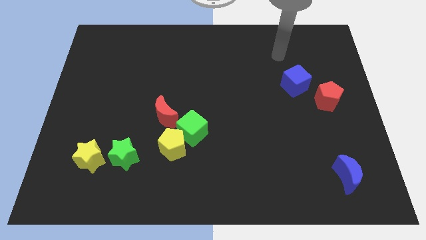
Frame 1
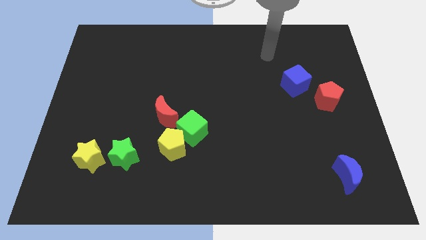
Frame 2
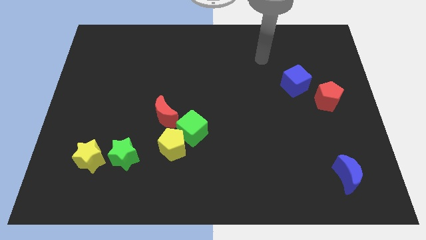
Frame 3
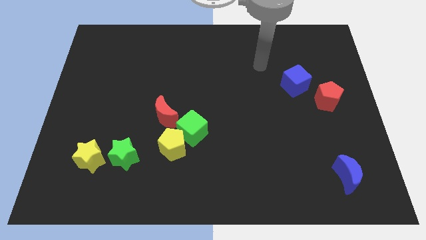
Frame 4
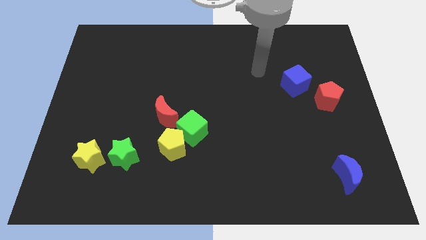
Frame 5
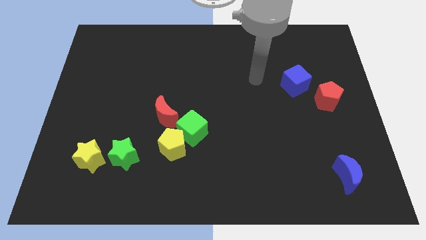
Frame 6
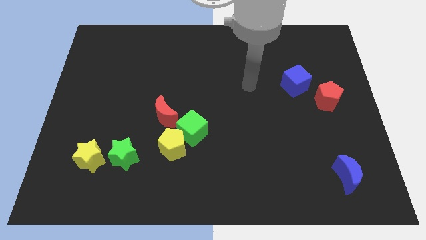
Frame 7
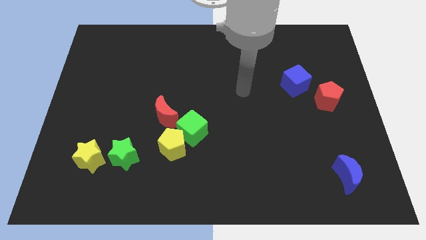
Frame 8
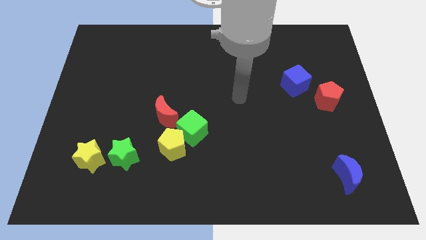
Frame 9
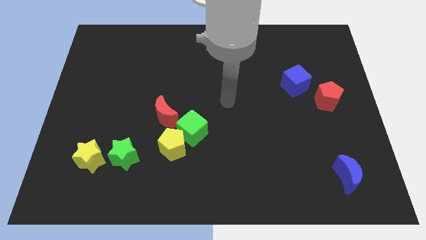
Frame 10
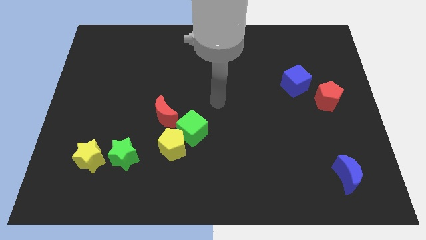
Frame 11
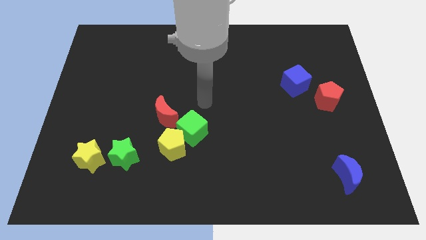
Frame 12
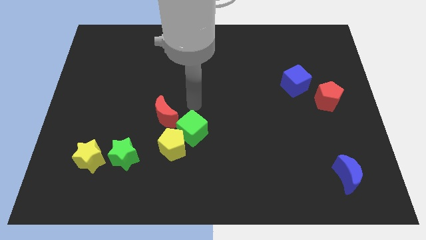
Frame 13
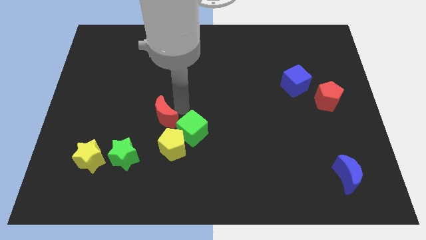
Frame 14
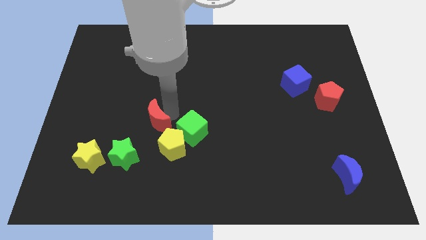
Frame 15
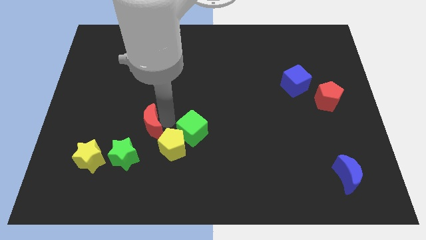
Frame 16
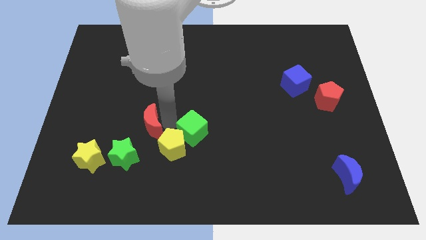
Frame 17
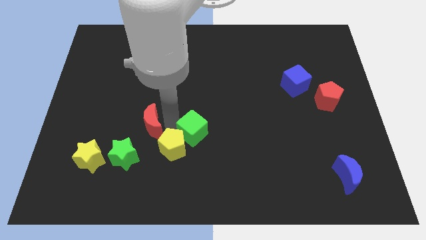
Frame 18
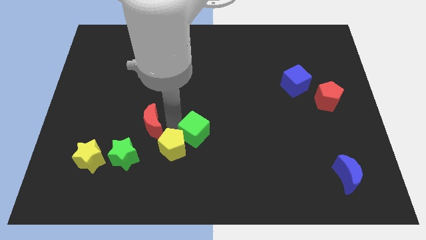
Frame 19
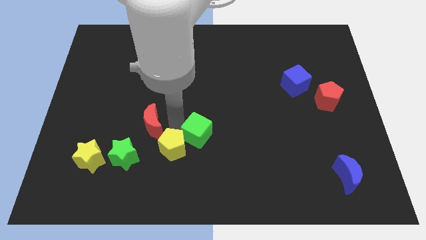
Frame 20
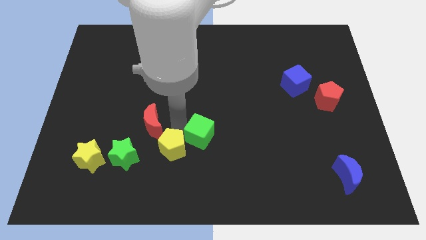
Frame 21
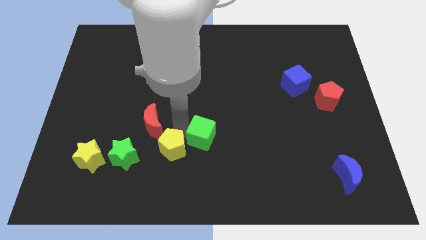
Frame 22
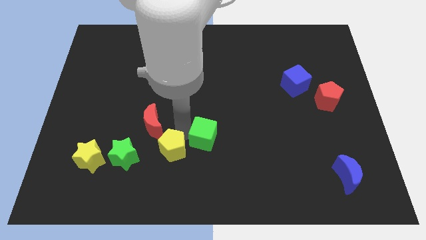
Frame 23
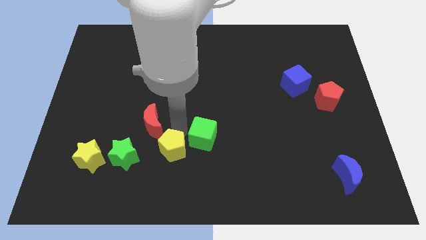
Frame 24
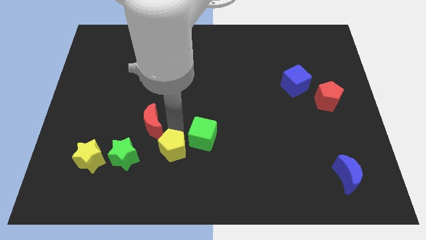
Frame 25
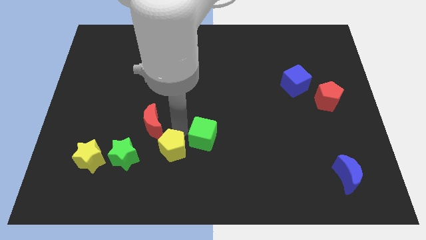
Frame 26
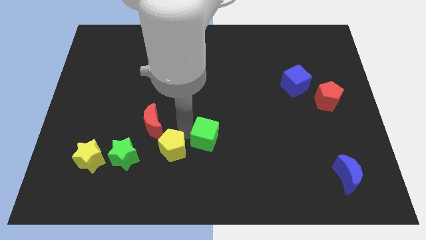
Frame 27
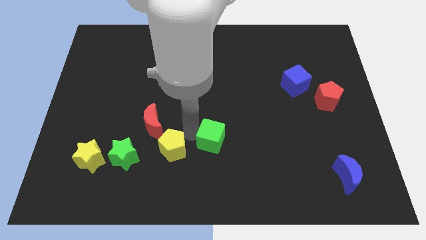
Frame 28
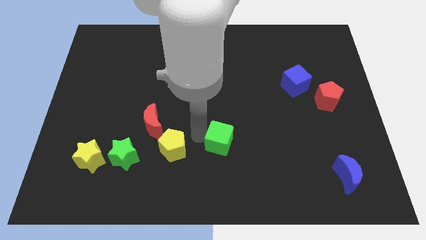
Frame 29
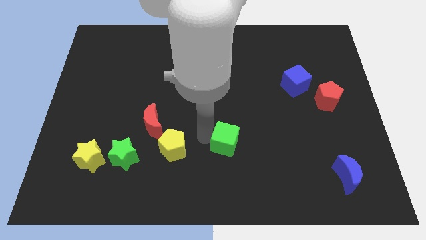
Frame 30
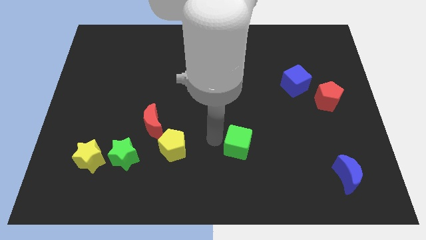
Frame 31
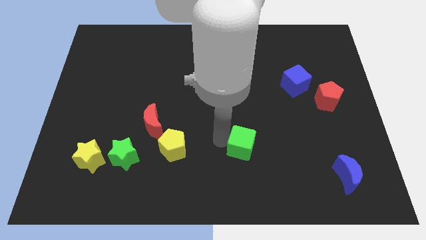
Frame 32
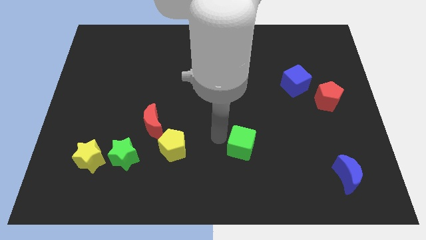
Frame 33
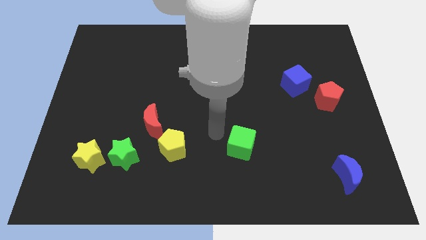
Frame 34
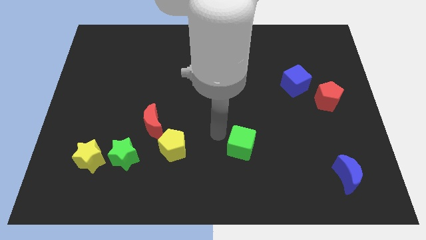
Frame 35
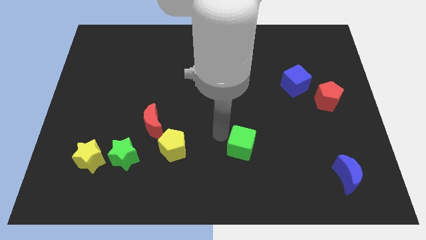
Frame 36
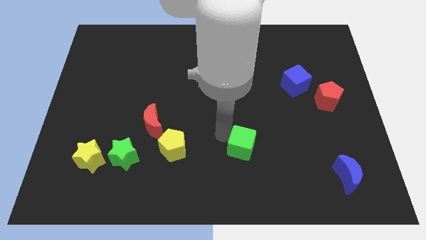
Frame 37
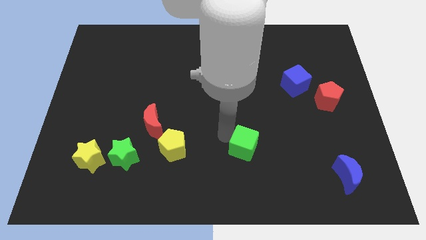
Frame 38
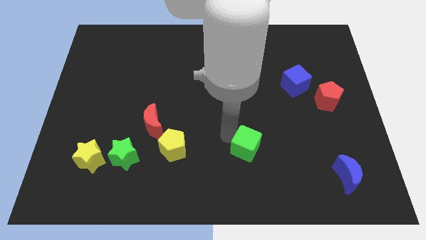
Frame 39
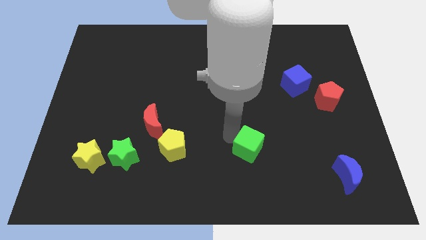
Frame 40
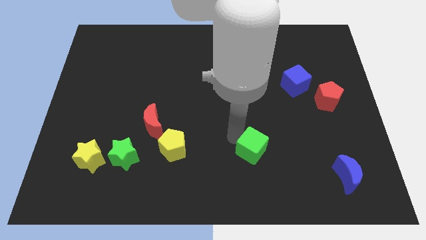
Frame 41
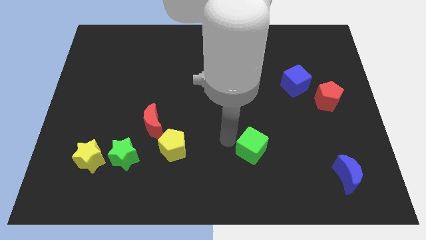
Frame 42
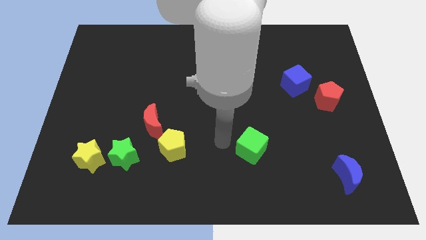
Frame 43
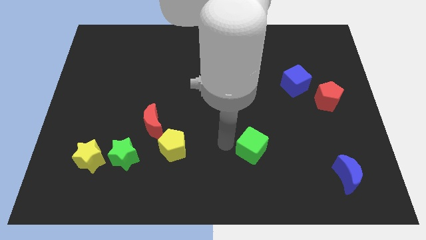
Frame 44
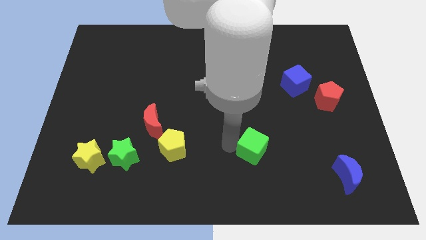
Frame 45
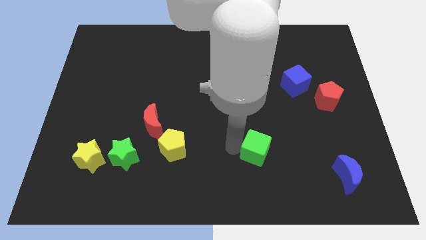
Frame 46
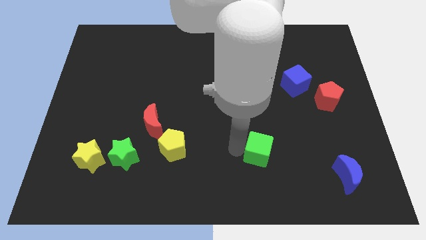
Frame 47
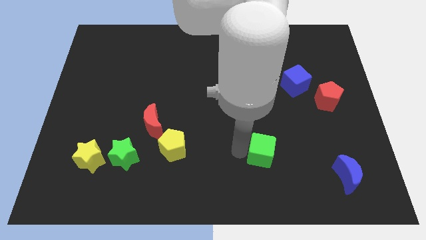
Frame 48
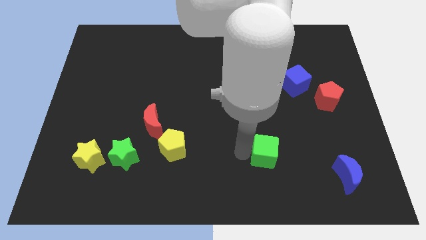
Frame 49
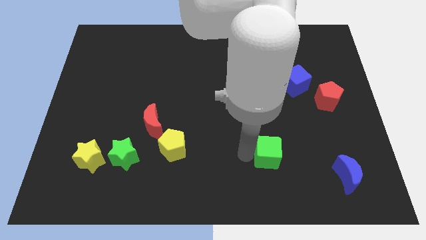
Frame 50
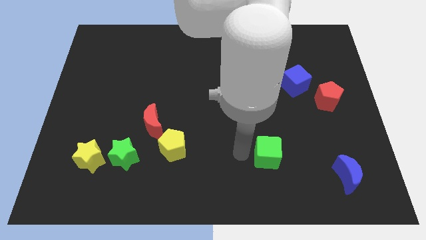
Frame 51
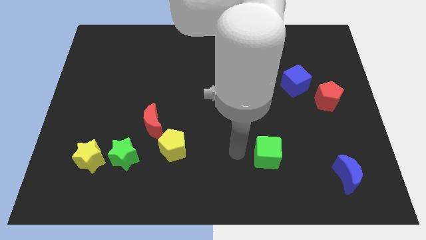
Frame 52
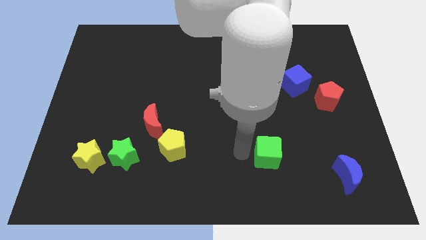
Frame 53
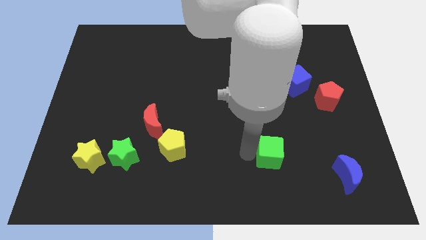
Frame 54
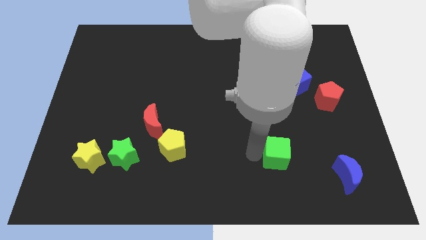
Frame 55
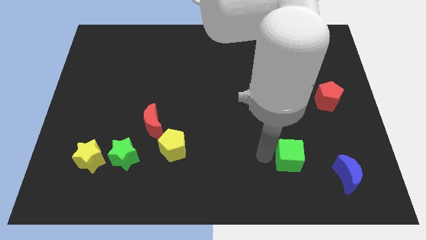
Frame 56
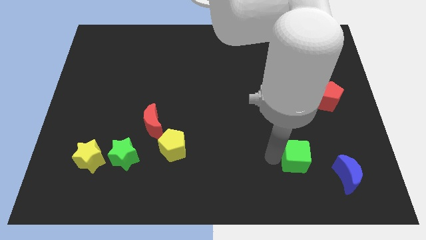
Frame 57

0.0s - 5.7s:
push the green cube diagonally up and to the left of the blue moon

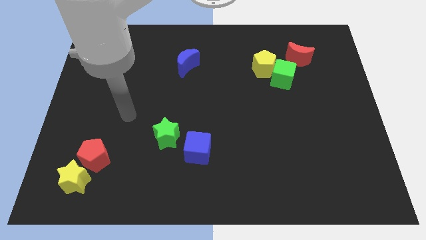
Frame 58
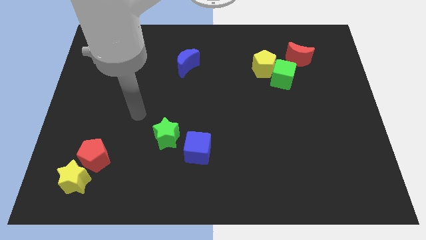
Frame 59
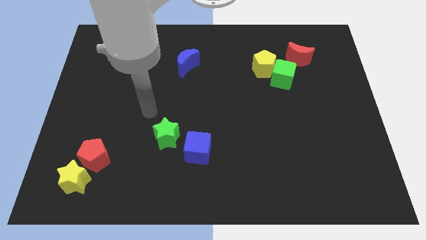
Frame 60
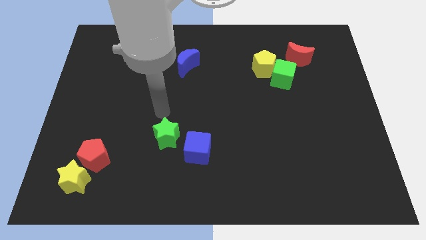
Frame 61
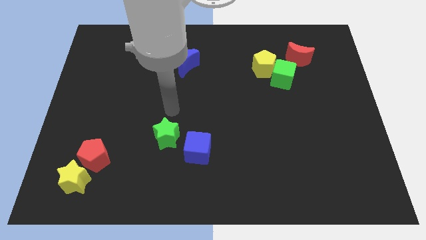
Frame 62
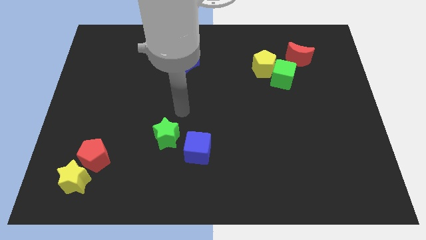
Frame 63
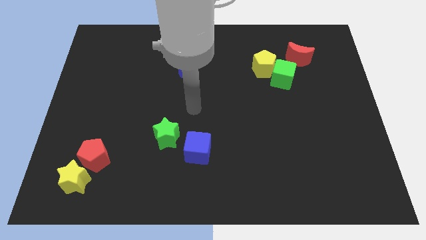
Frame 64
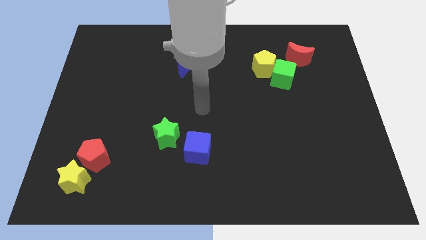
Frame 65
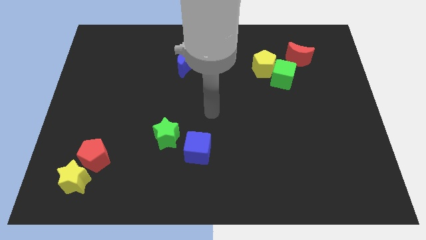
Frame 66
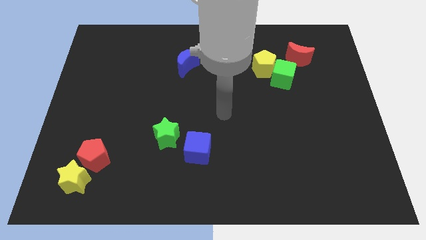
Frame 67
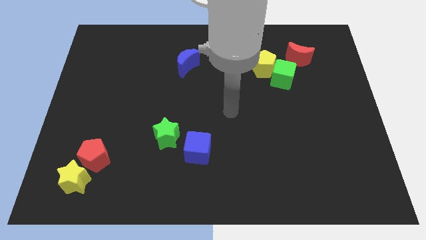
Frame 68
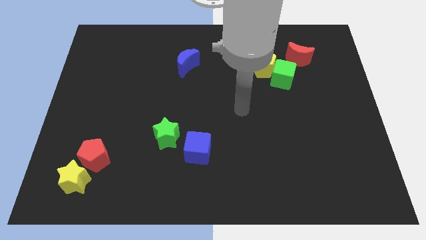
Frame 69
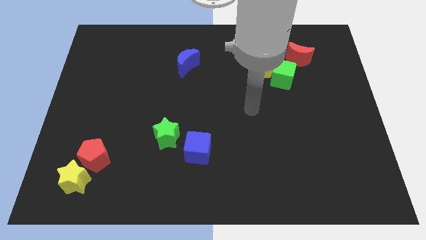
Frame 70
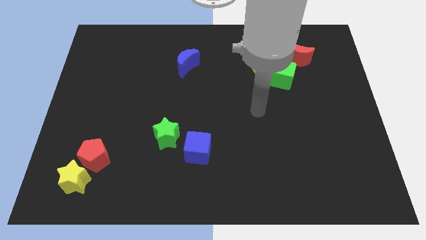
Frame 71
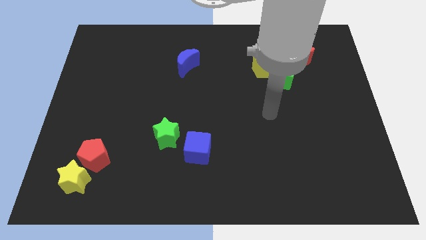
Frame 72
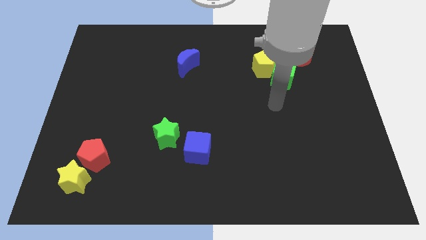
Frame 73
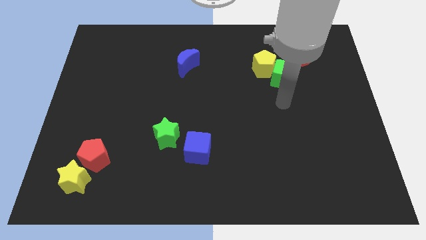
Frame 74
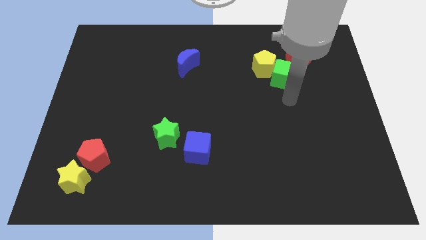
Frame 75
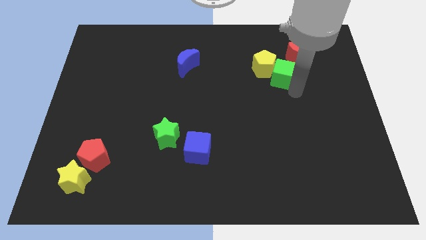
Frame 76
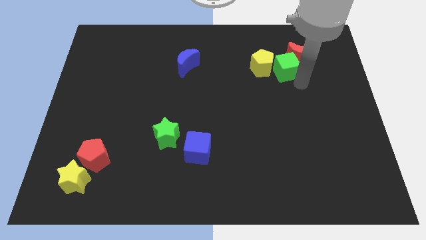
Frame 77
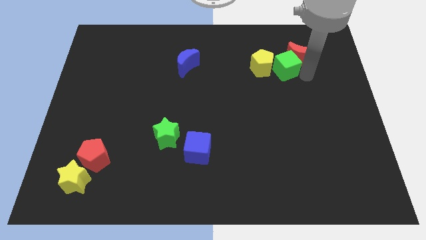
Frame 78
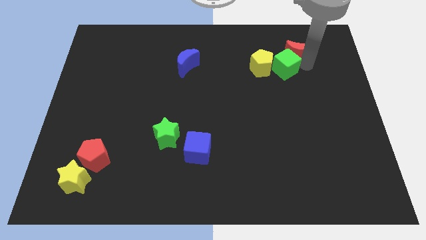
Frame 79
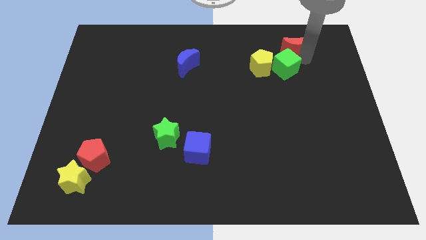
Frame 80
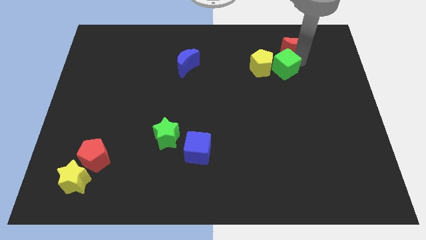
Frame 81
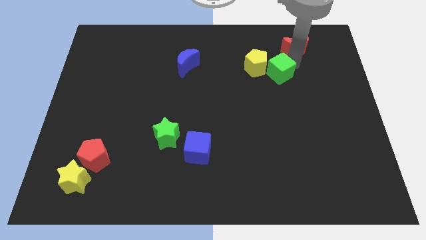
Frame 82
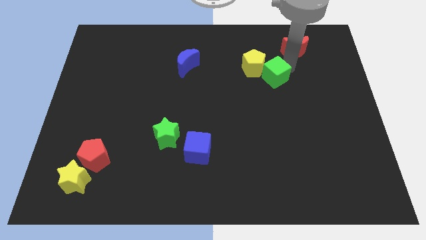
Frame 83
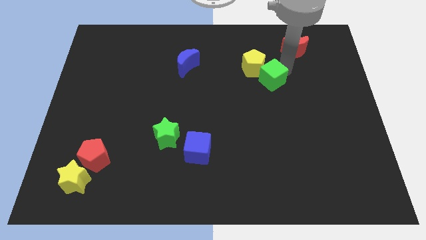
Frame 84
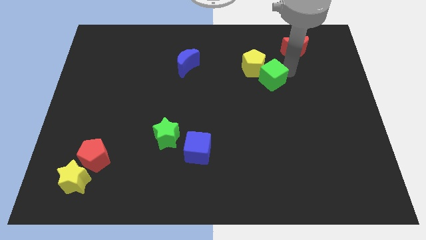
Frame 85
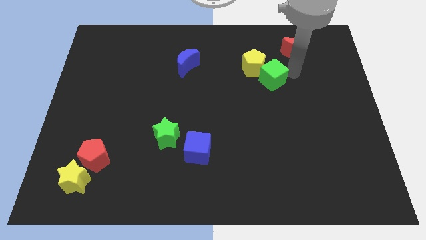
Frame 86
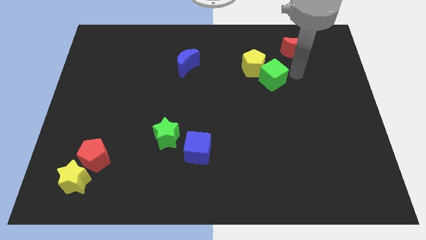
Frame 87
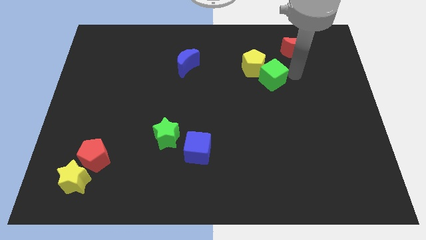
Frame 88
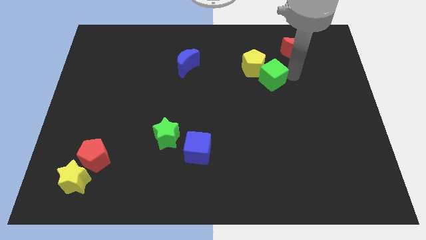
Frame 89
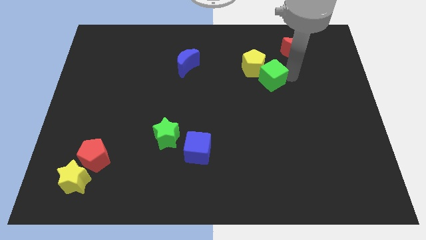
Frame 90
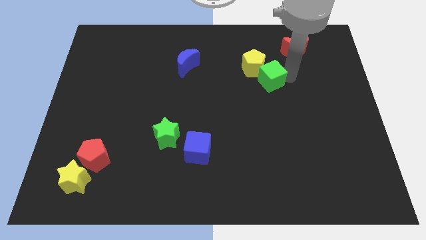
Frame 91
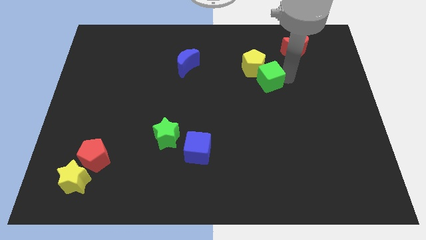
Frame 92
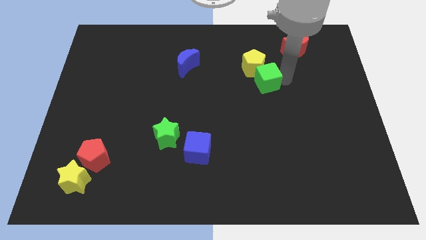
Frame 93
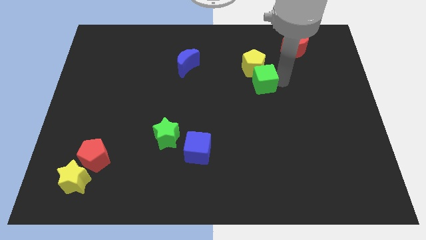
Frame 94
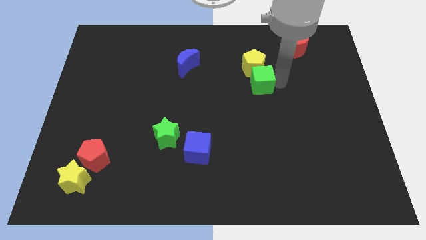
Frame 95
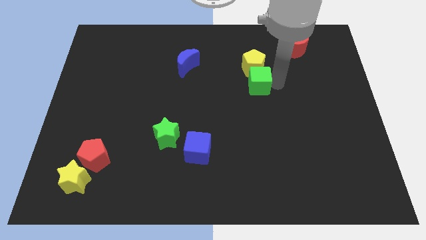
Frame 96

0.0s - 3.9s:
put the green cube diagonally down and to the left of the yellow pentagon
